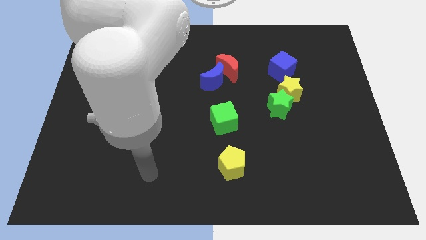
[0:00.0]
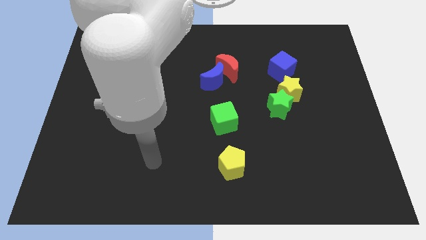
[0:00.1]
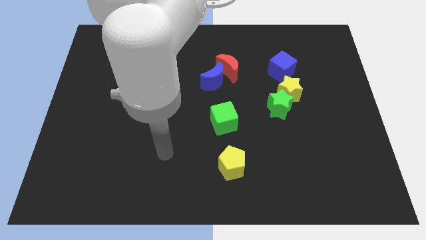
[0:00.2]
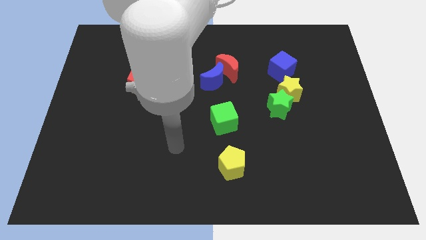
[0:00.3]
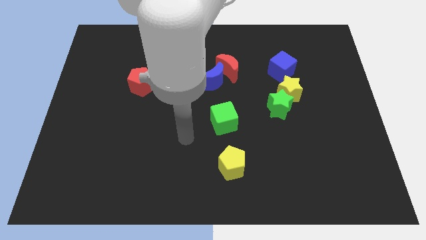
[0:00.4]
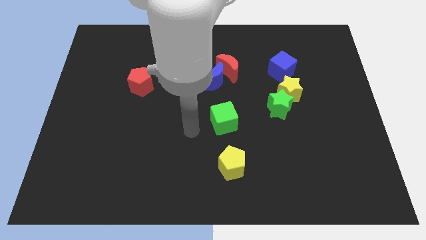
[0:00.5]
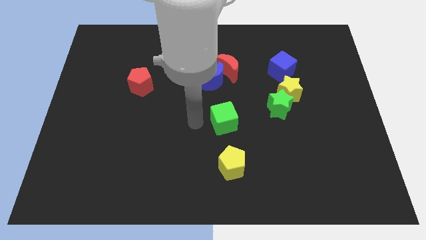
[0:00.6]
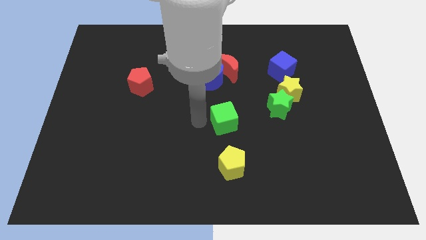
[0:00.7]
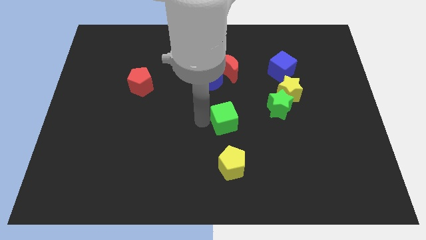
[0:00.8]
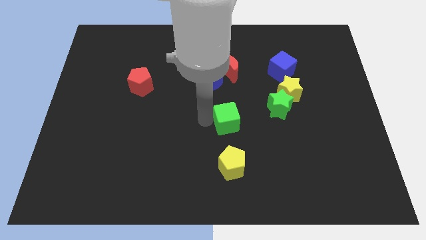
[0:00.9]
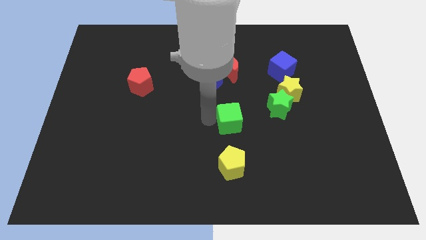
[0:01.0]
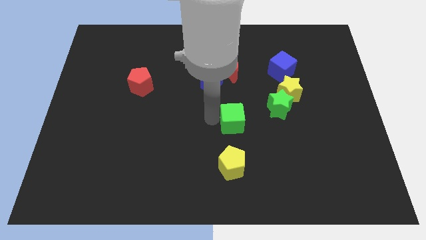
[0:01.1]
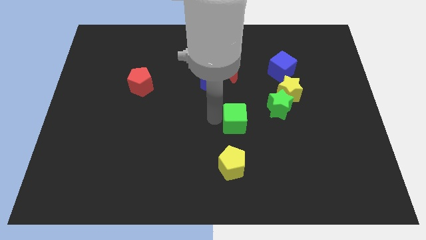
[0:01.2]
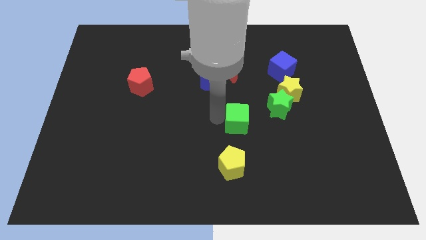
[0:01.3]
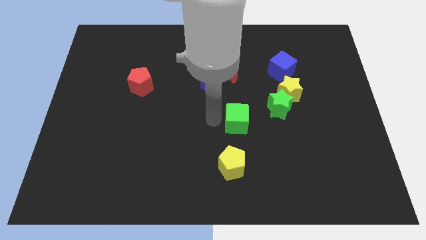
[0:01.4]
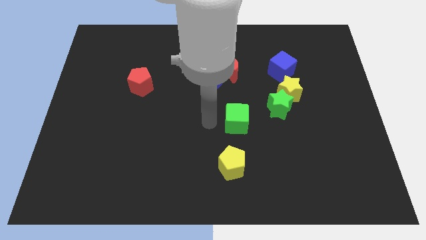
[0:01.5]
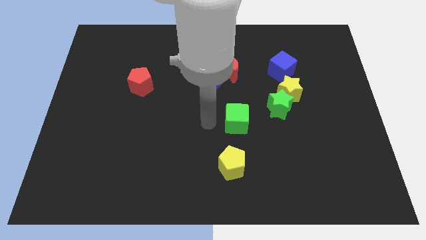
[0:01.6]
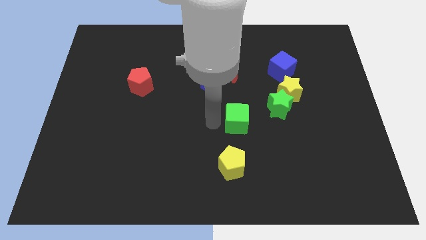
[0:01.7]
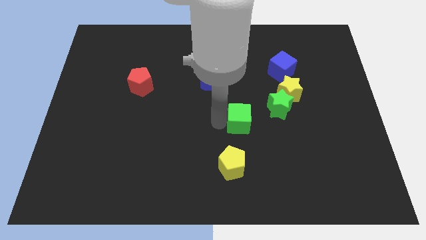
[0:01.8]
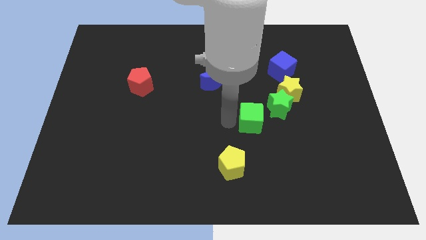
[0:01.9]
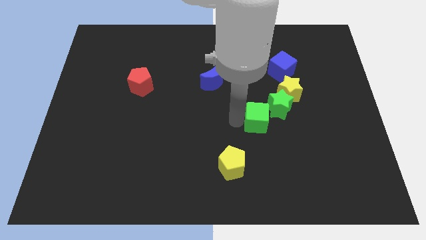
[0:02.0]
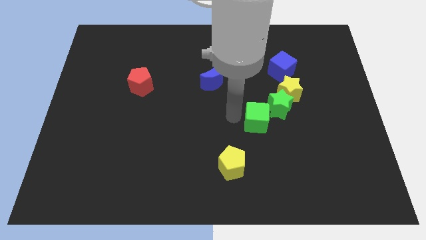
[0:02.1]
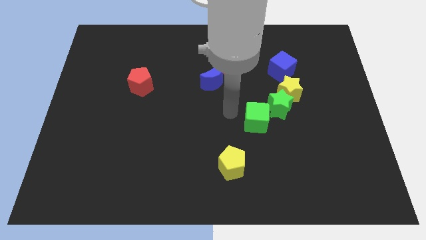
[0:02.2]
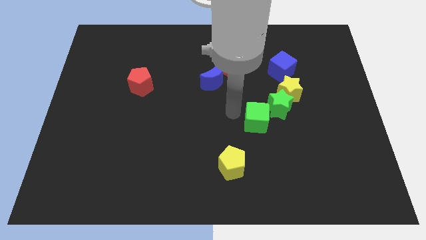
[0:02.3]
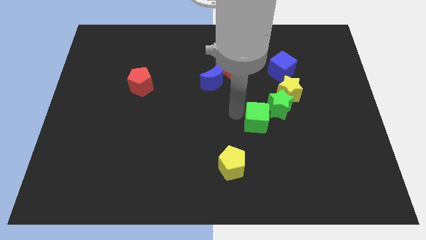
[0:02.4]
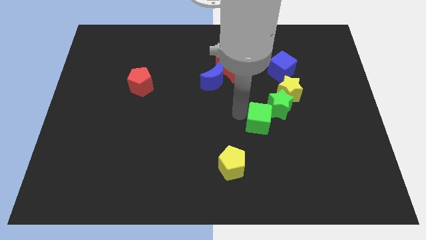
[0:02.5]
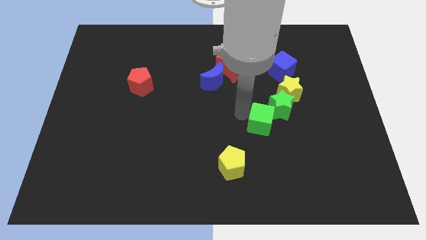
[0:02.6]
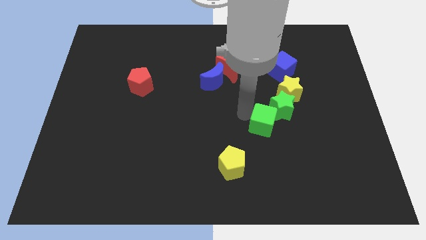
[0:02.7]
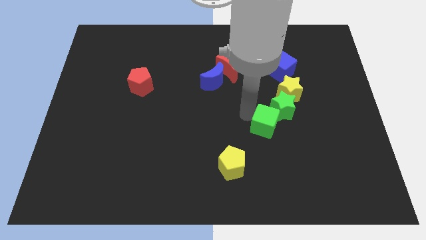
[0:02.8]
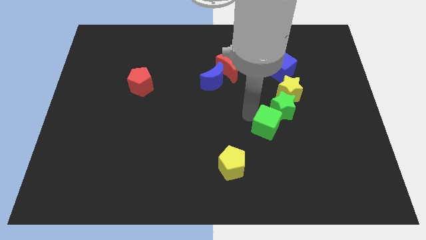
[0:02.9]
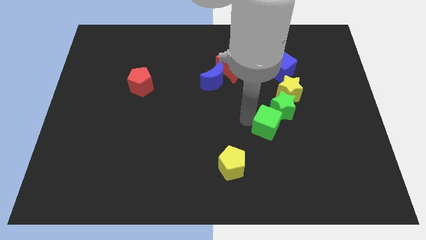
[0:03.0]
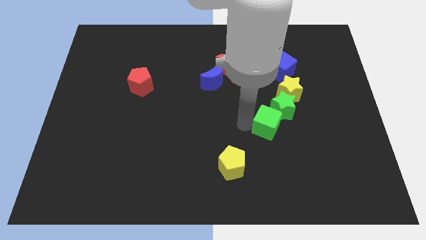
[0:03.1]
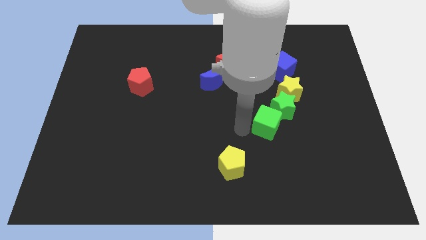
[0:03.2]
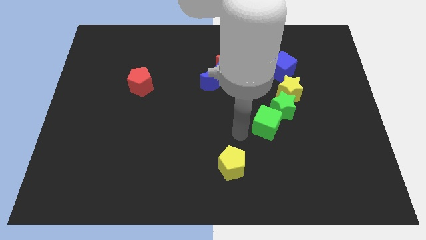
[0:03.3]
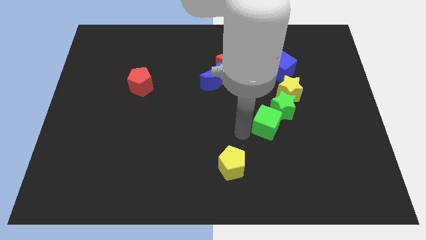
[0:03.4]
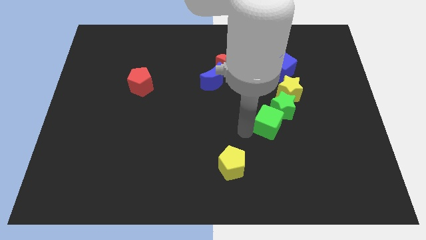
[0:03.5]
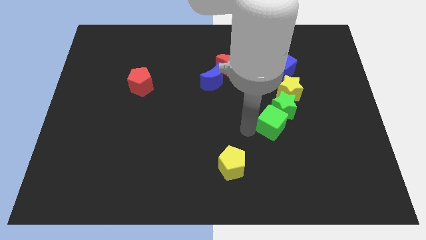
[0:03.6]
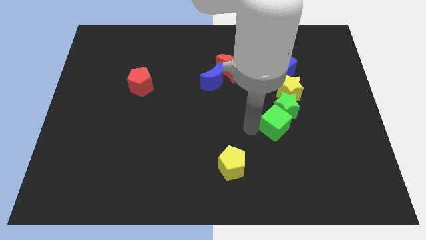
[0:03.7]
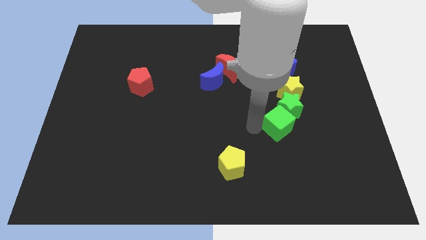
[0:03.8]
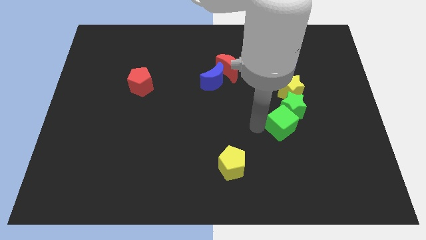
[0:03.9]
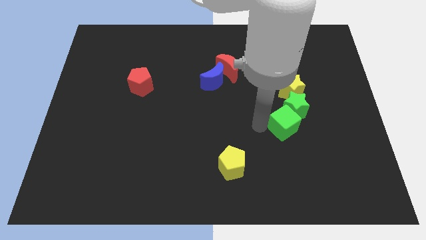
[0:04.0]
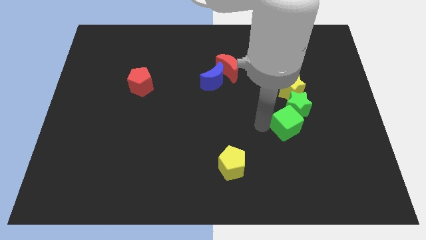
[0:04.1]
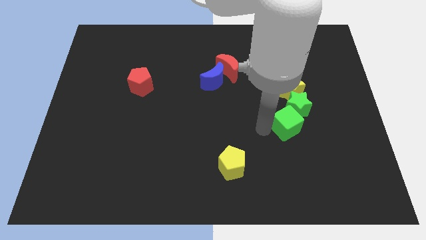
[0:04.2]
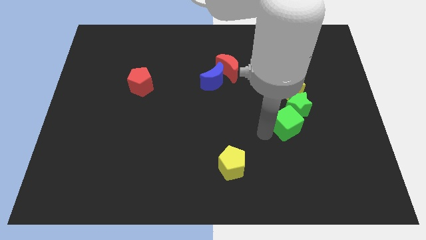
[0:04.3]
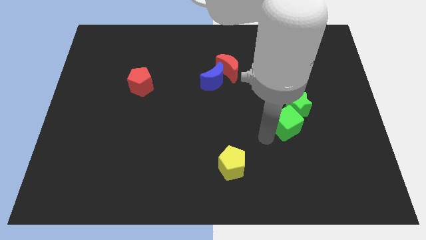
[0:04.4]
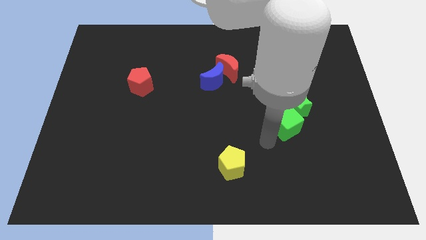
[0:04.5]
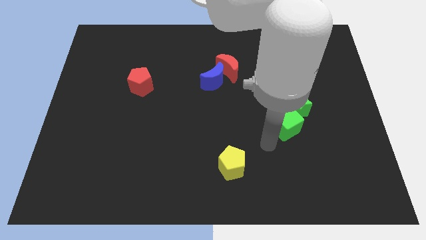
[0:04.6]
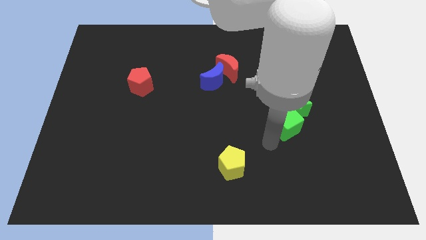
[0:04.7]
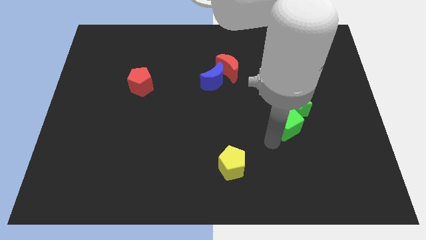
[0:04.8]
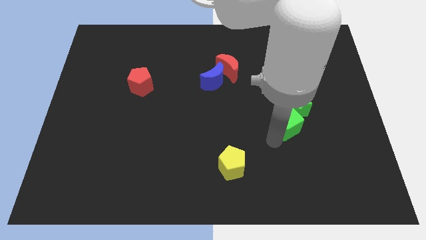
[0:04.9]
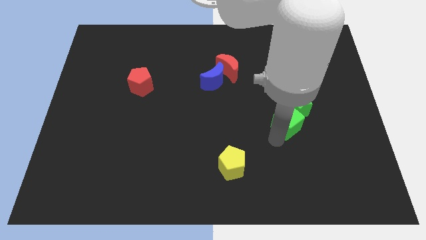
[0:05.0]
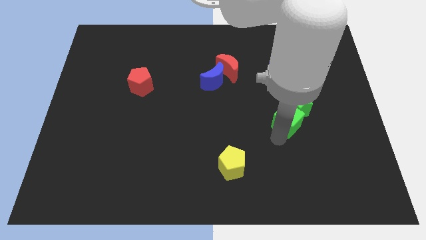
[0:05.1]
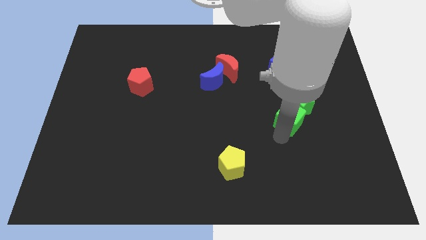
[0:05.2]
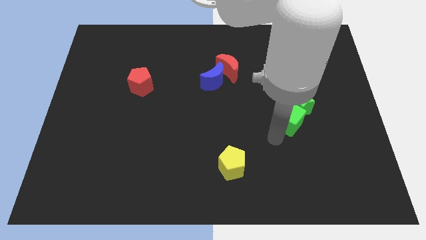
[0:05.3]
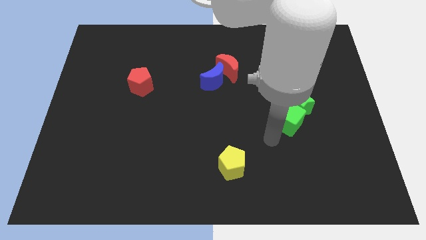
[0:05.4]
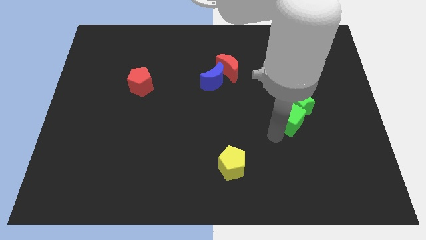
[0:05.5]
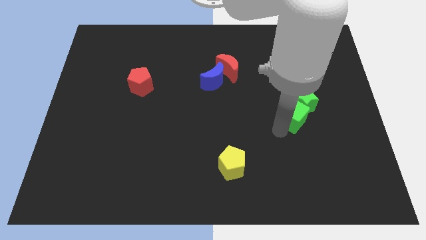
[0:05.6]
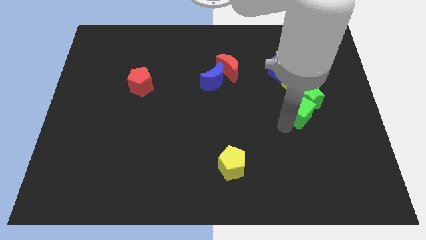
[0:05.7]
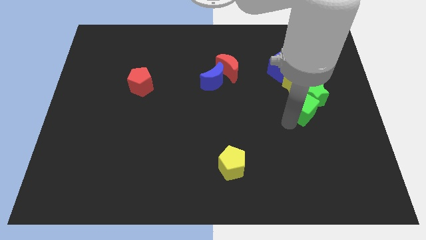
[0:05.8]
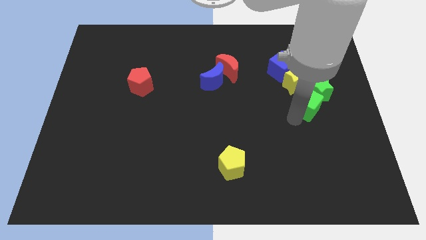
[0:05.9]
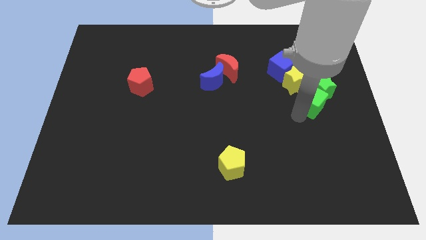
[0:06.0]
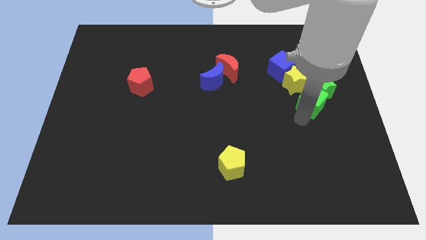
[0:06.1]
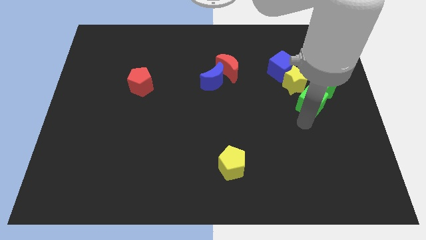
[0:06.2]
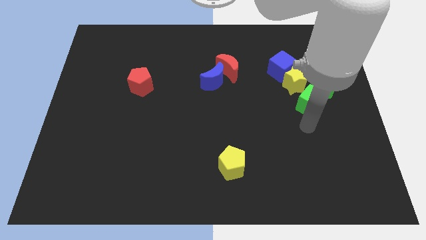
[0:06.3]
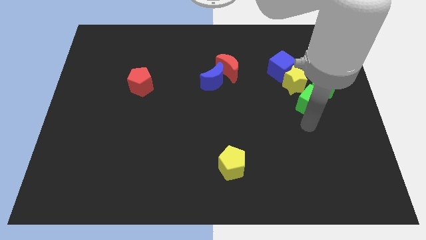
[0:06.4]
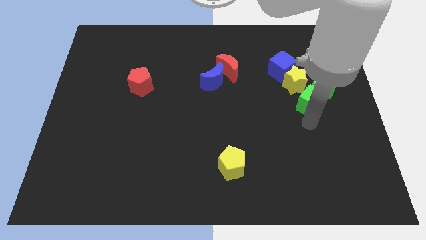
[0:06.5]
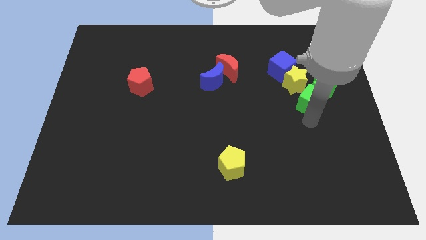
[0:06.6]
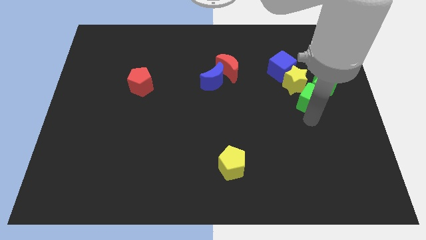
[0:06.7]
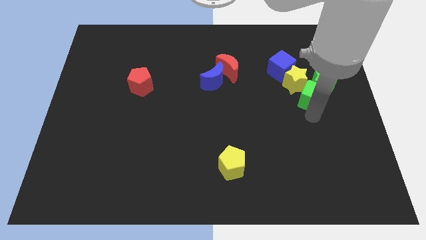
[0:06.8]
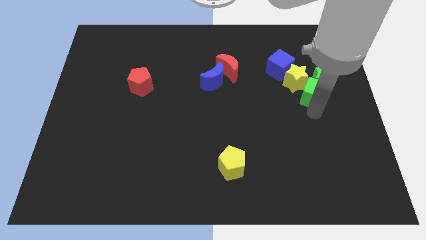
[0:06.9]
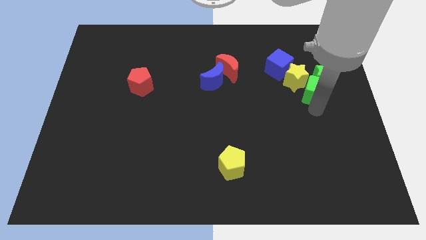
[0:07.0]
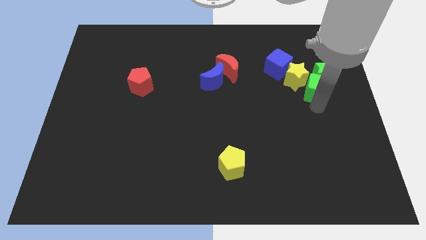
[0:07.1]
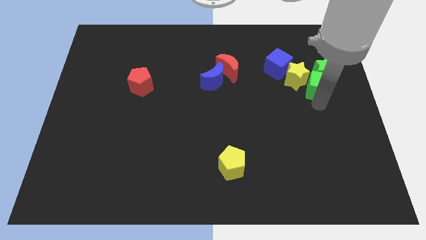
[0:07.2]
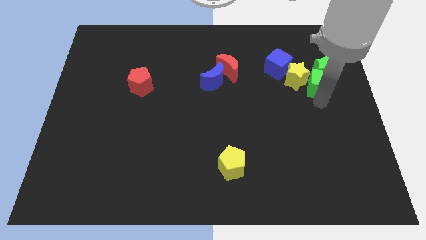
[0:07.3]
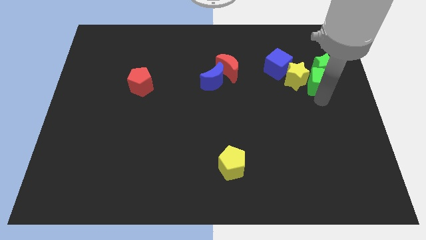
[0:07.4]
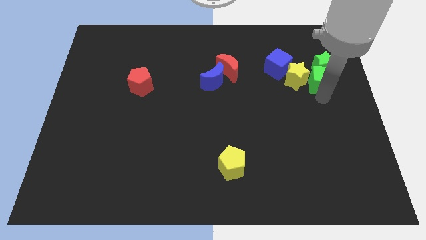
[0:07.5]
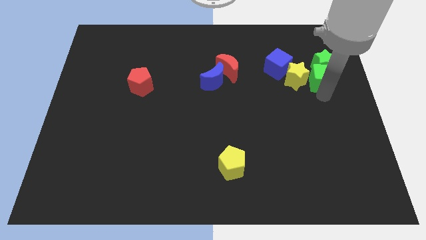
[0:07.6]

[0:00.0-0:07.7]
slide the green cube just right of the blue cube
